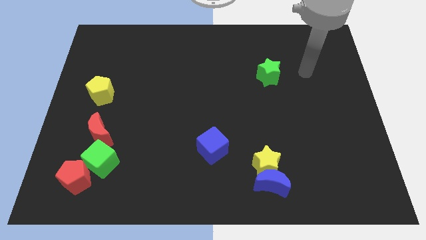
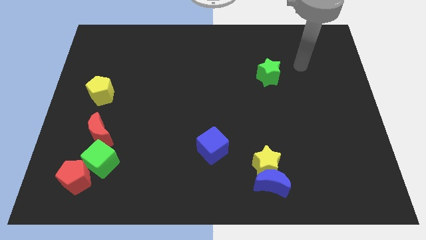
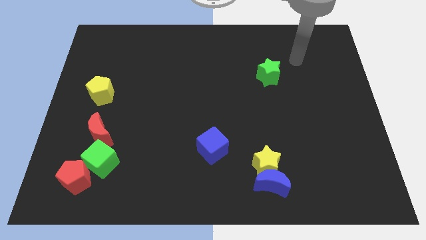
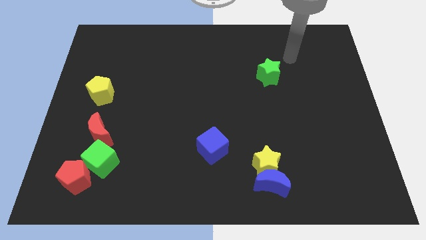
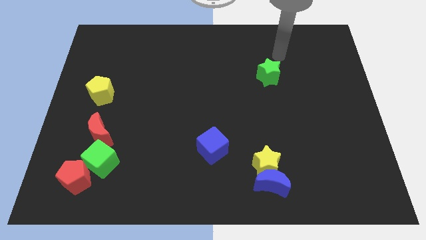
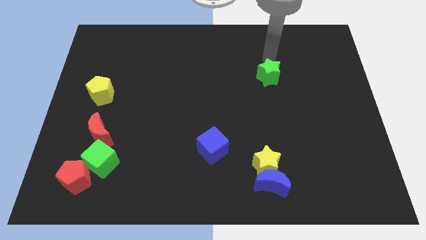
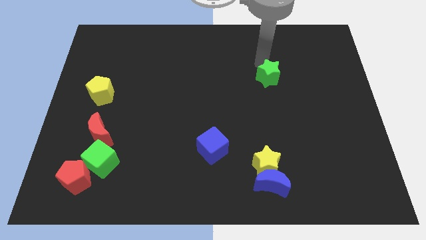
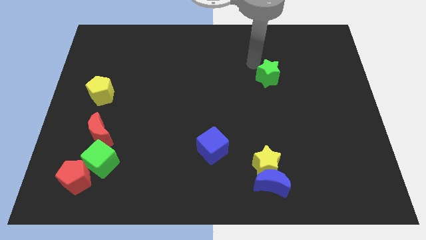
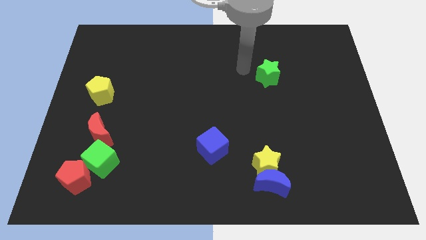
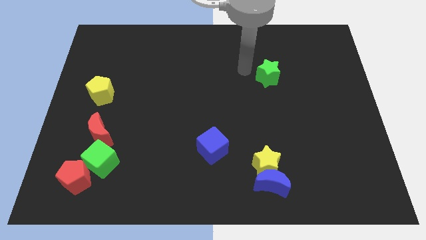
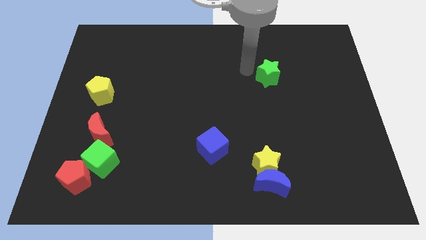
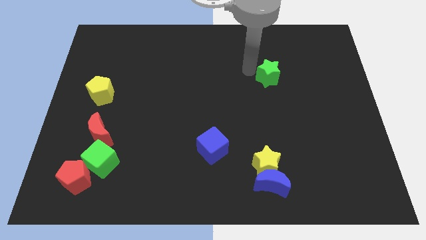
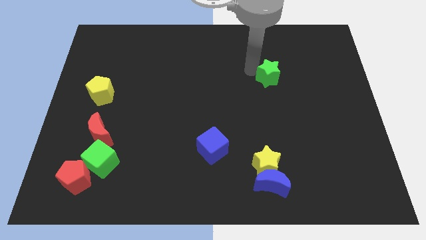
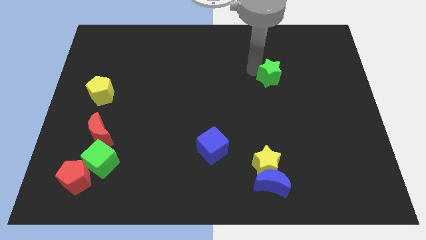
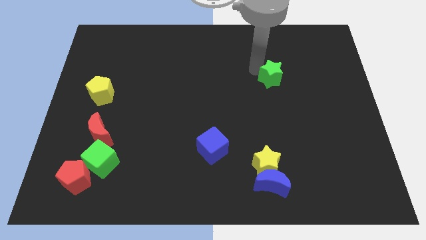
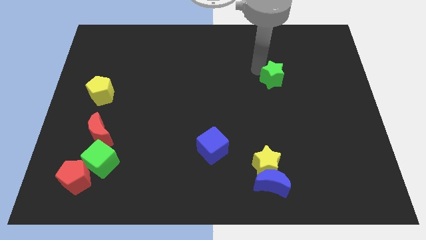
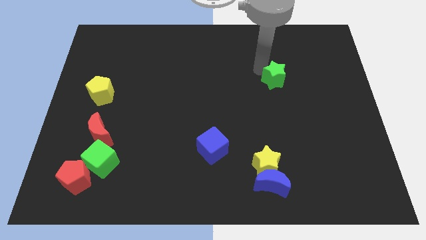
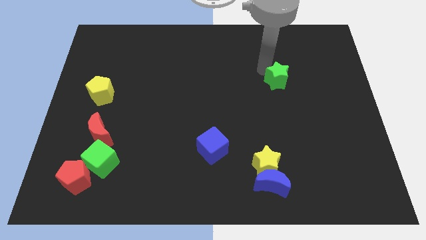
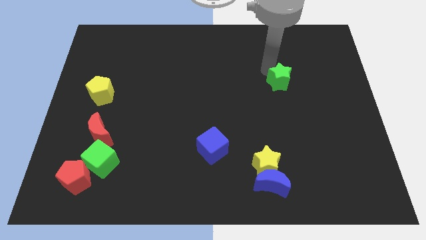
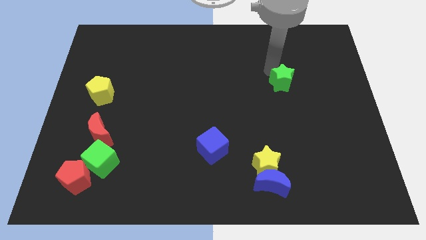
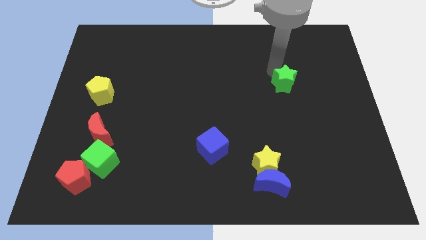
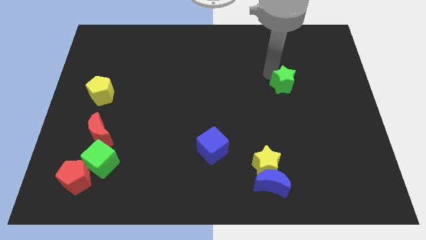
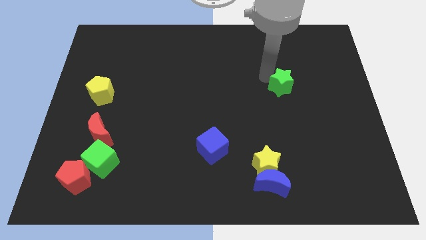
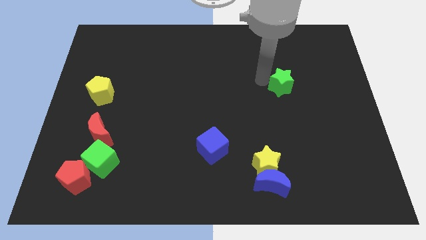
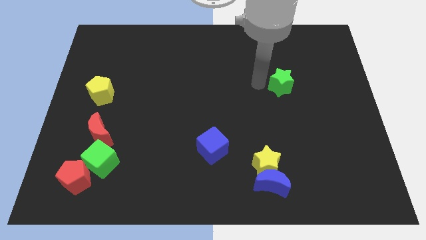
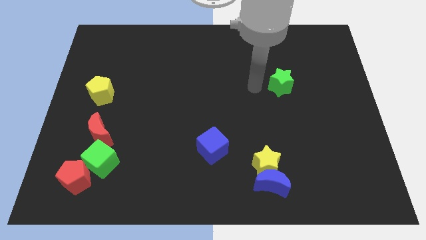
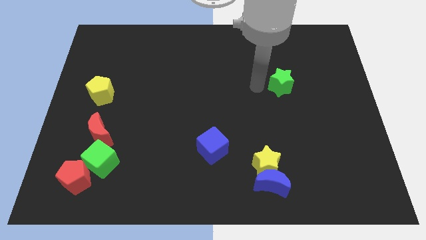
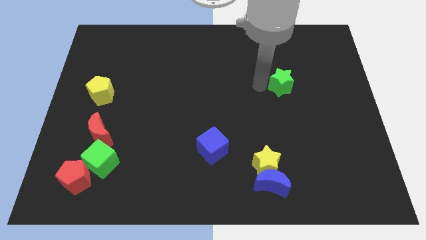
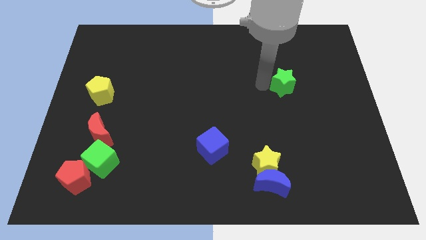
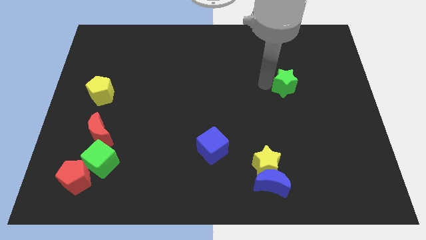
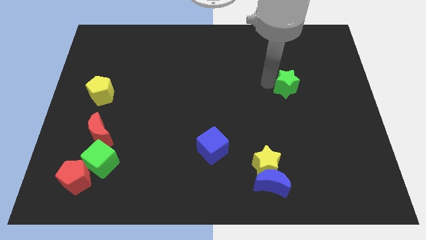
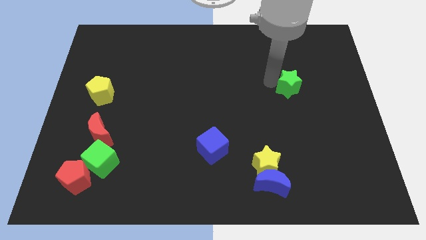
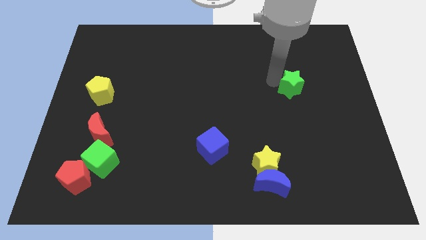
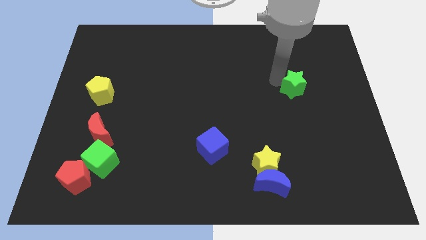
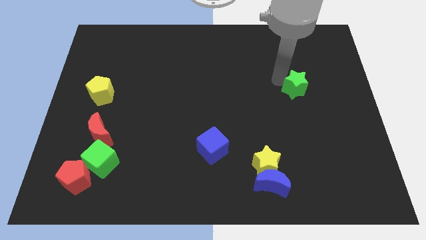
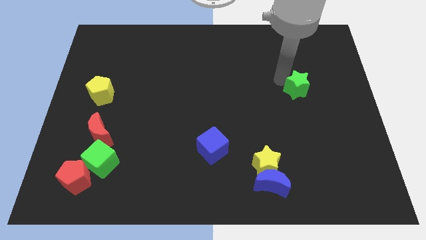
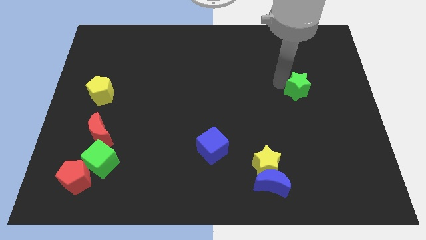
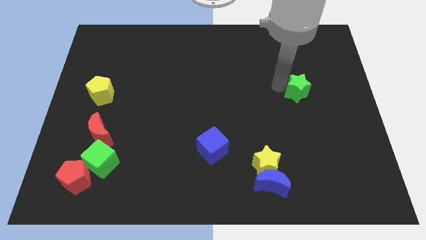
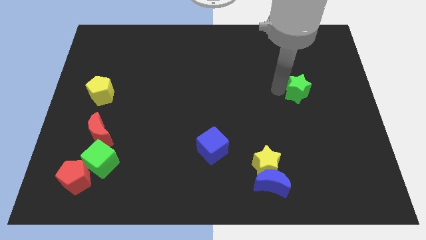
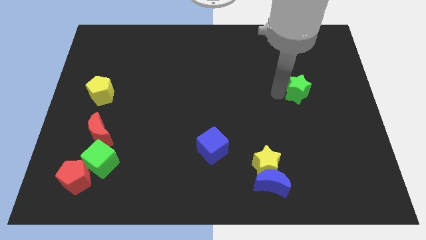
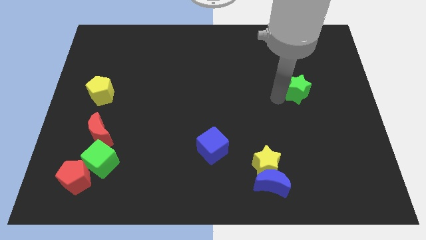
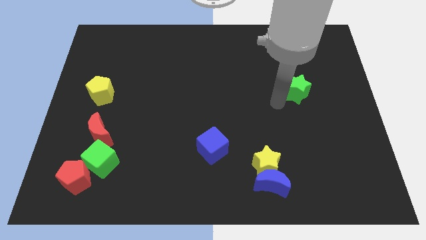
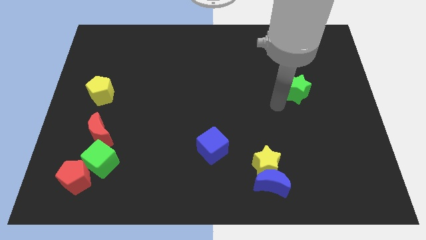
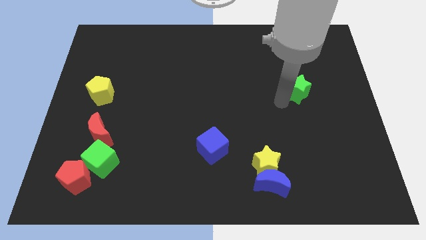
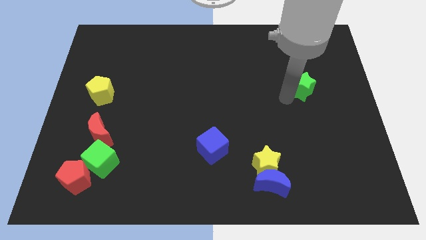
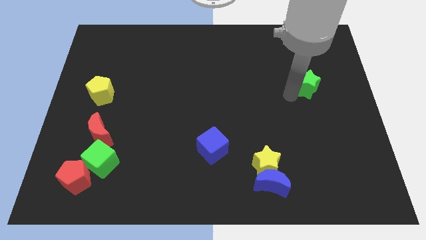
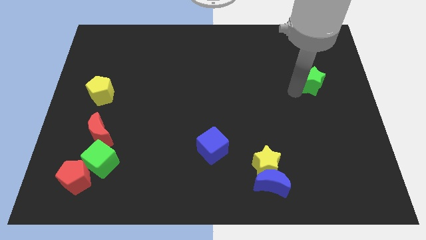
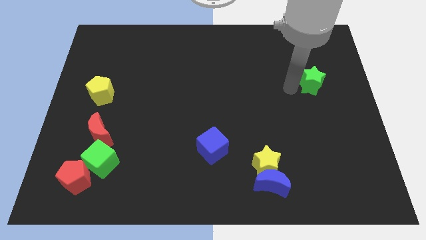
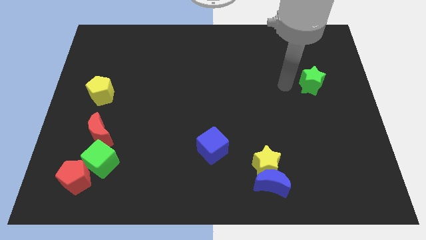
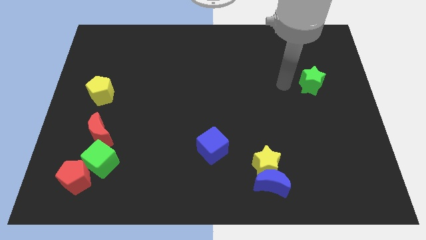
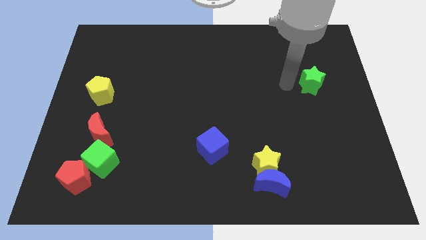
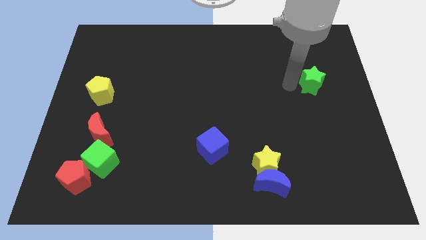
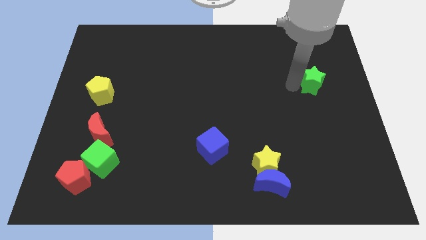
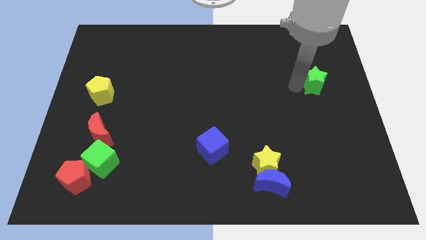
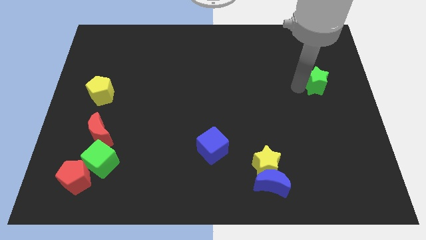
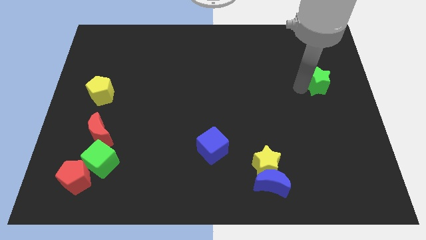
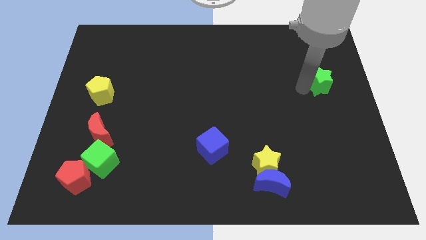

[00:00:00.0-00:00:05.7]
put the green star to the center right

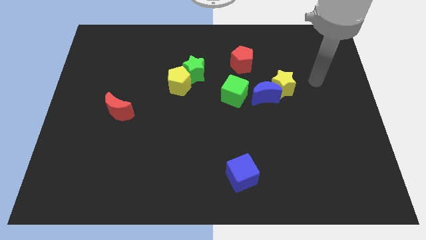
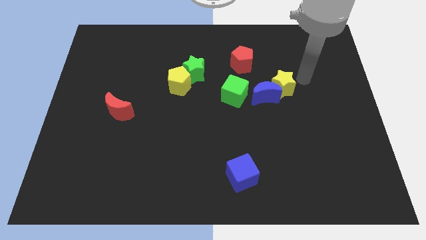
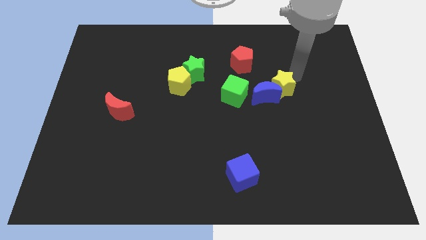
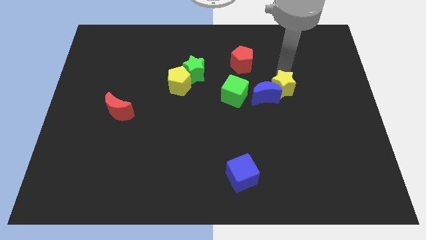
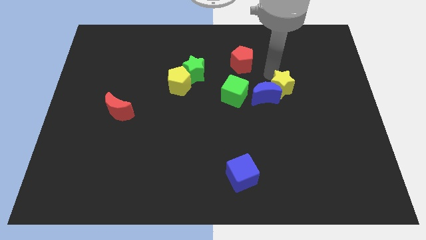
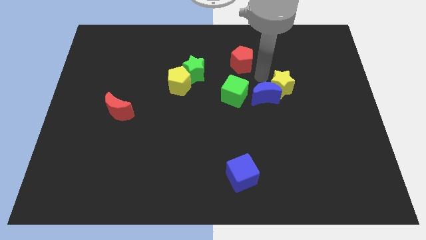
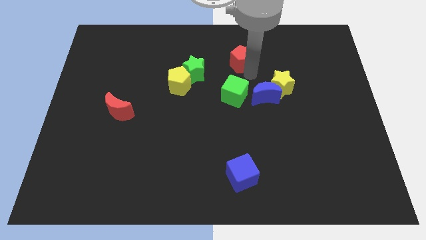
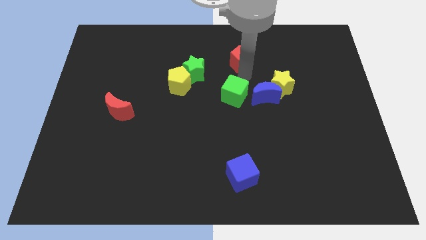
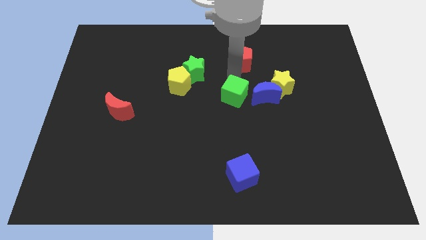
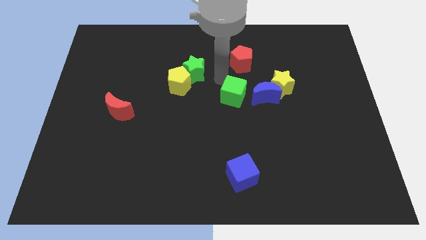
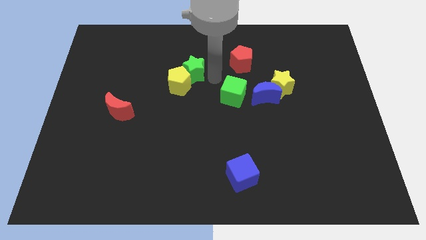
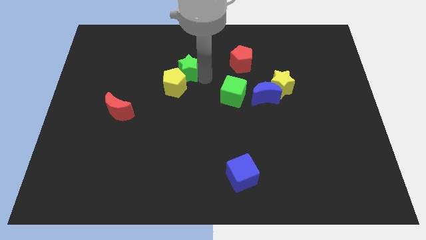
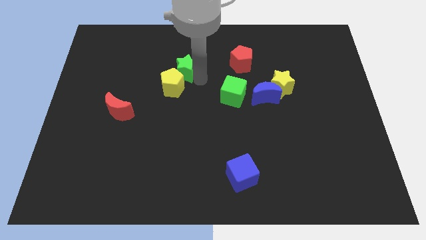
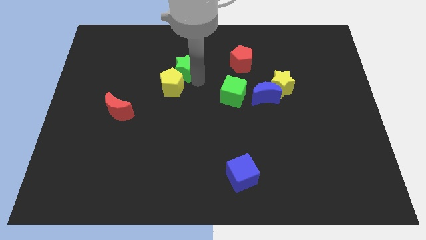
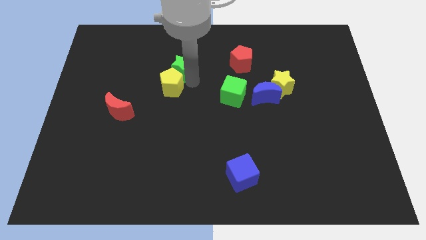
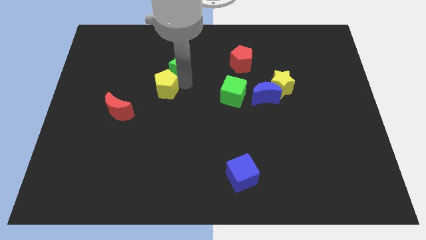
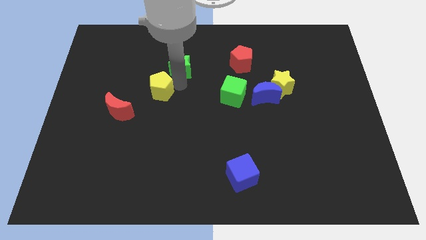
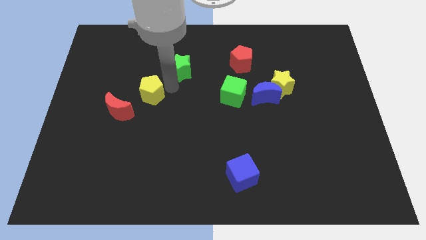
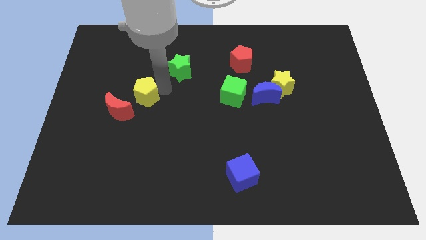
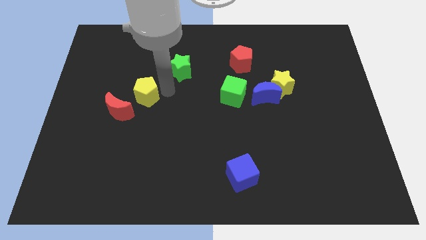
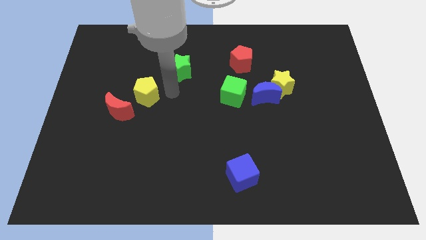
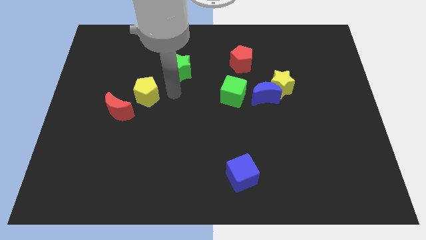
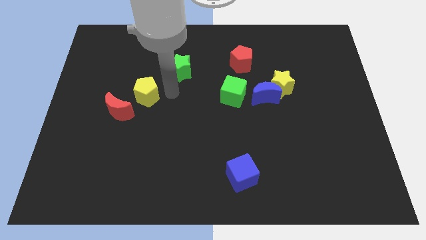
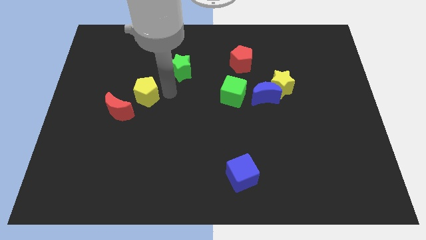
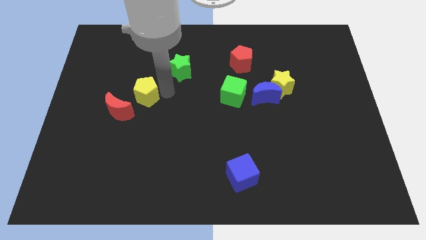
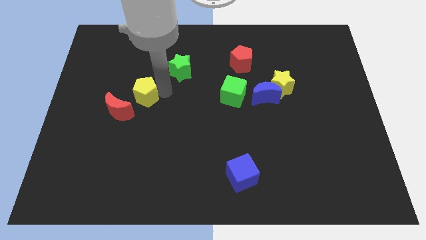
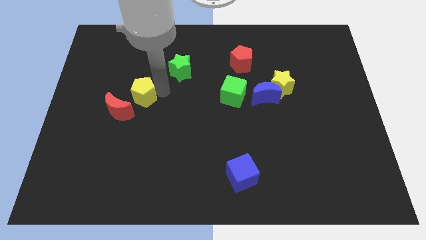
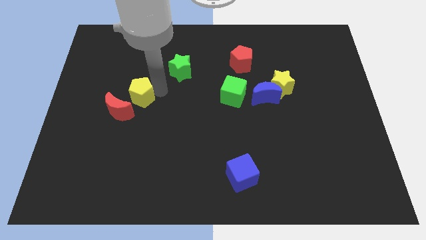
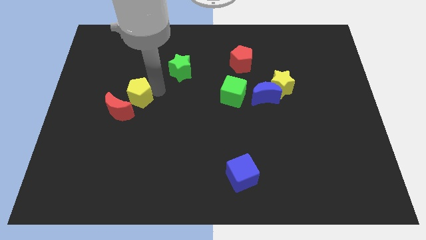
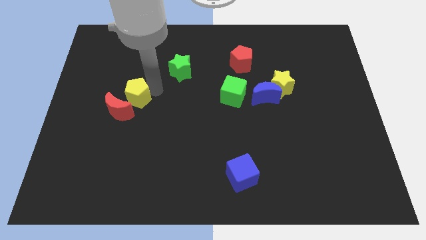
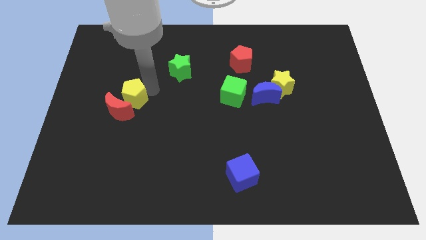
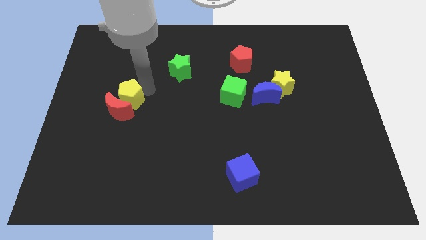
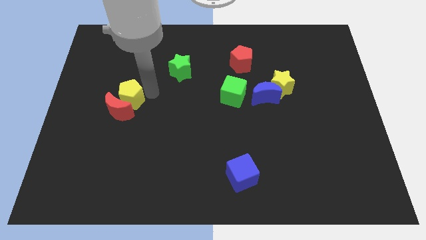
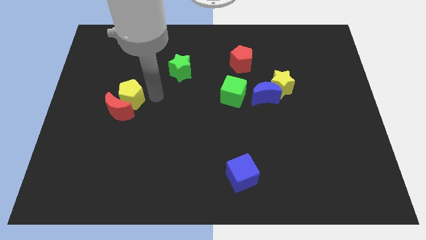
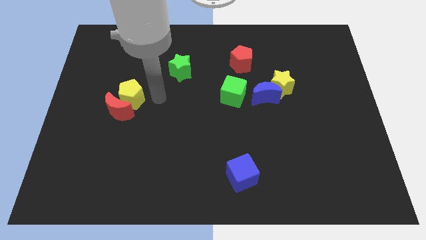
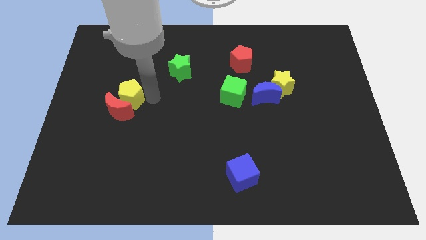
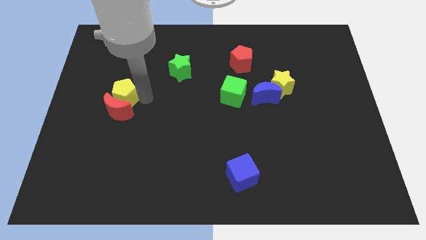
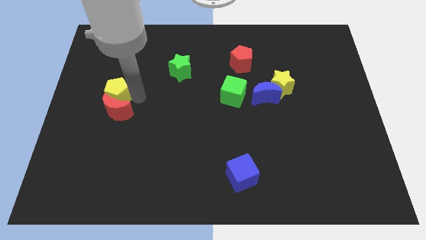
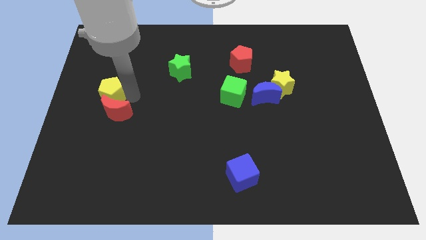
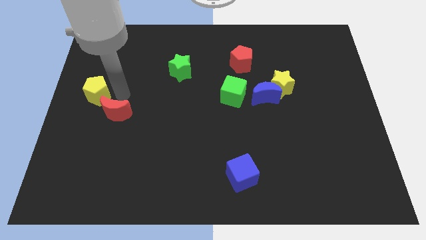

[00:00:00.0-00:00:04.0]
move the yellow pentagon to the center left
